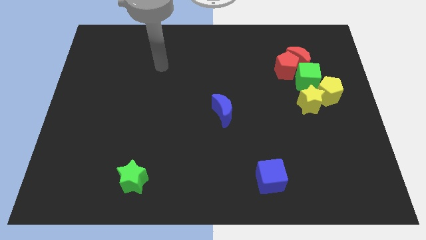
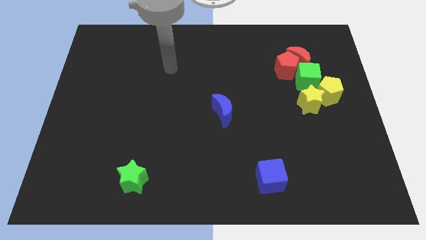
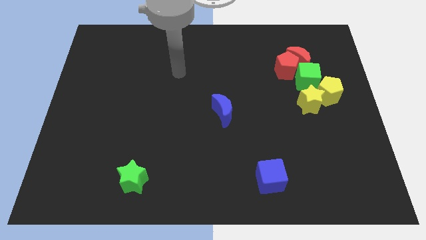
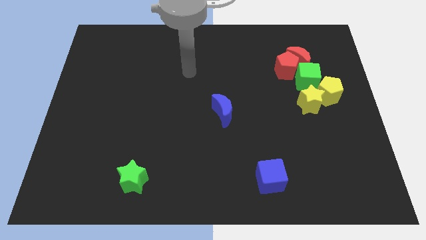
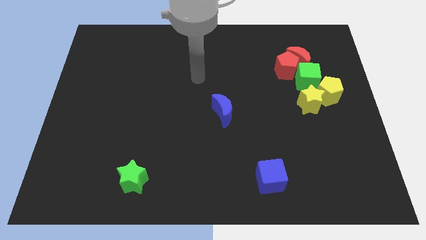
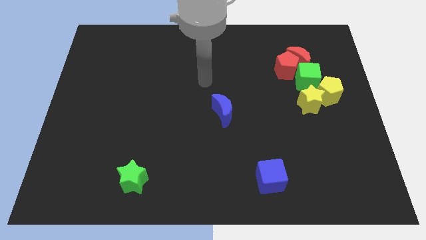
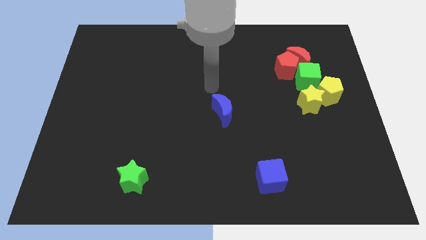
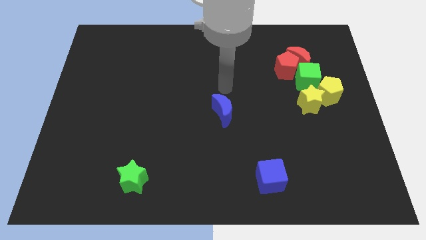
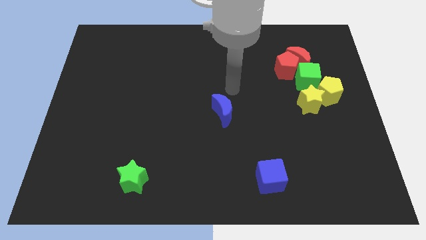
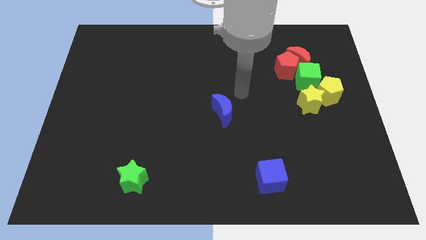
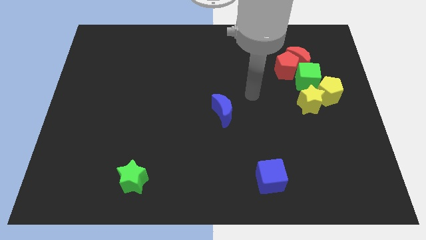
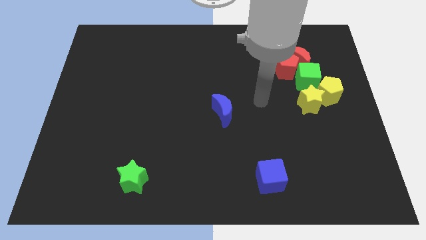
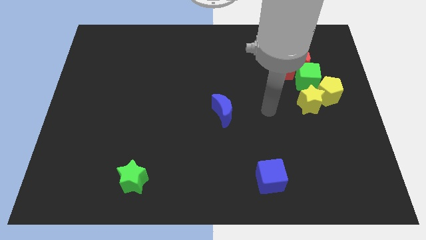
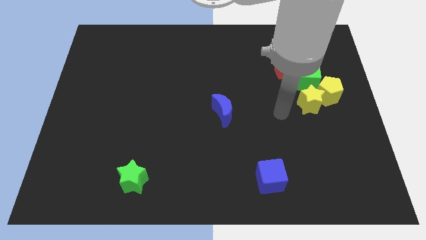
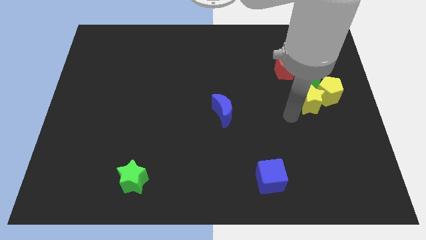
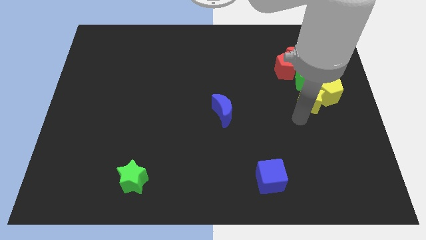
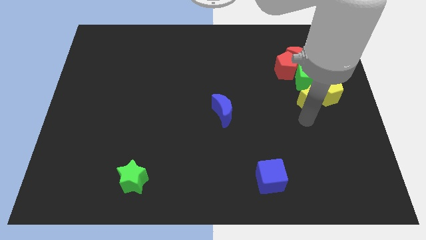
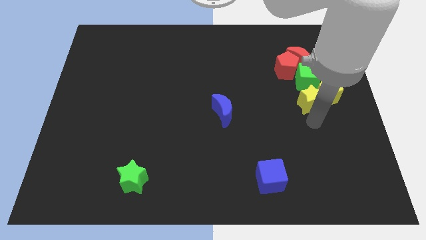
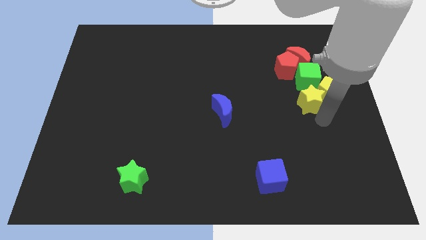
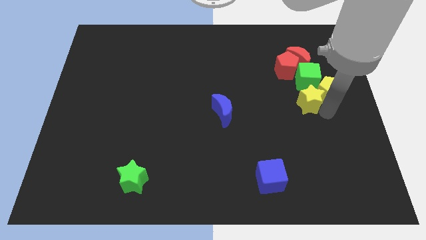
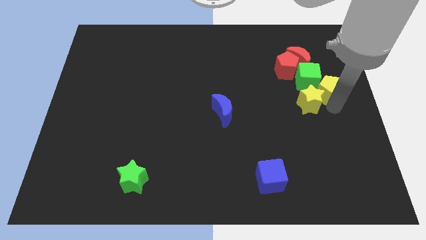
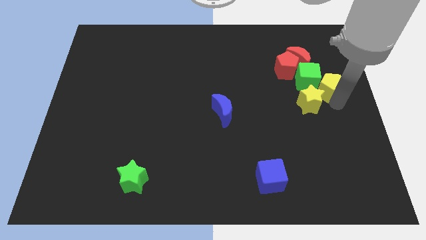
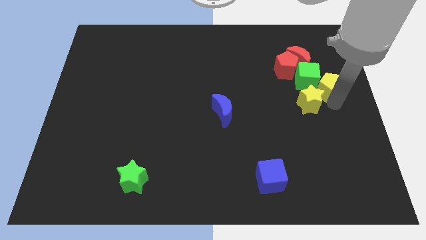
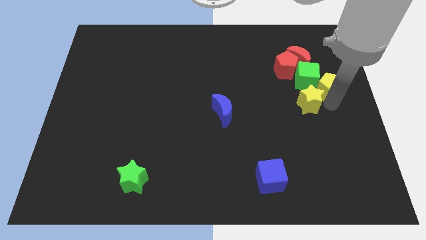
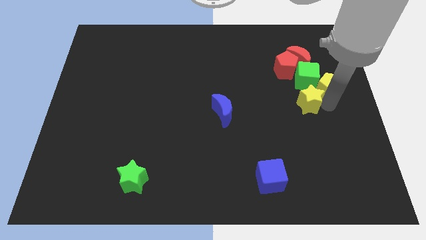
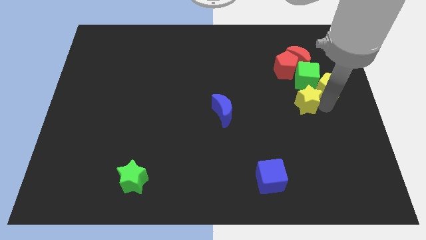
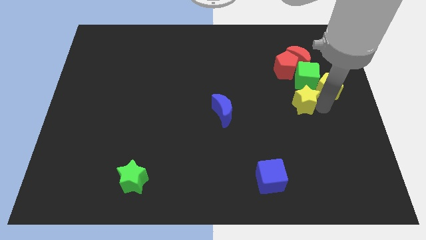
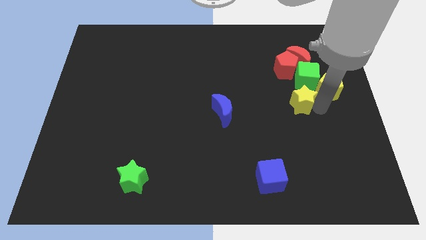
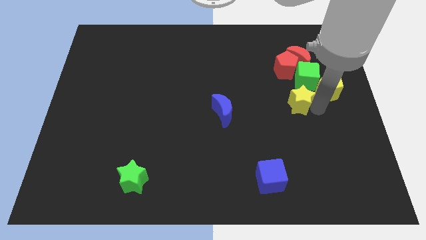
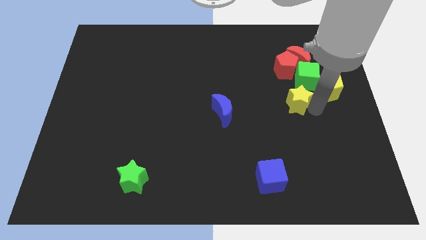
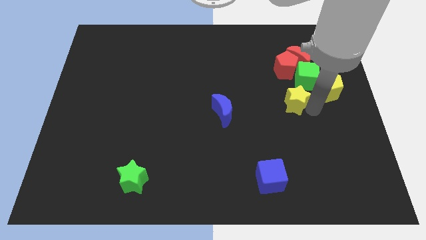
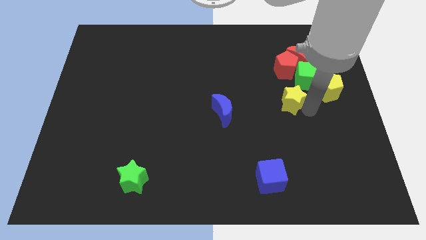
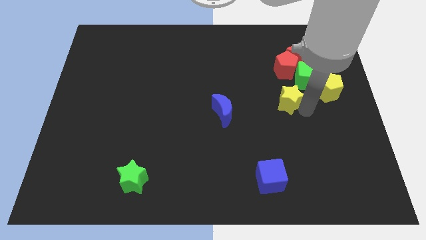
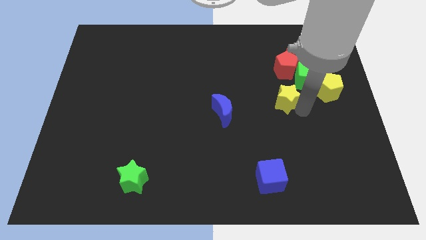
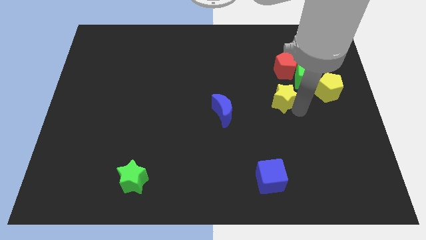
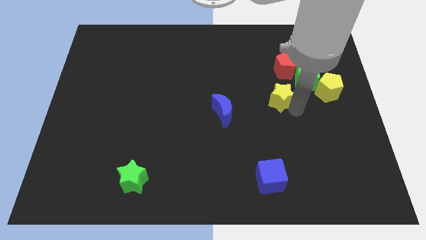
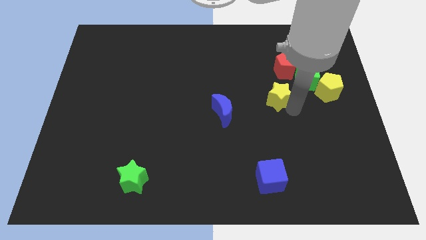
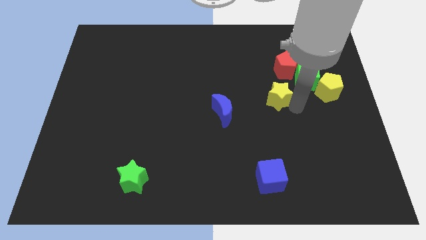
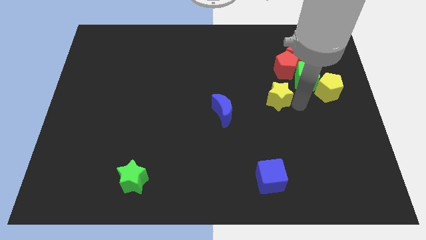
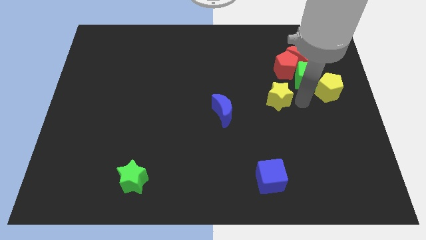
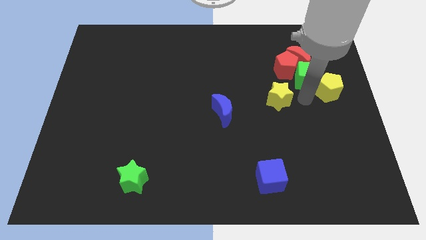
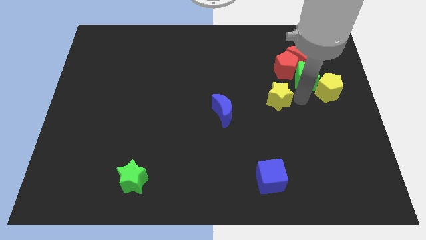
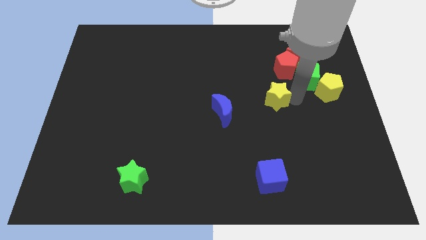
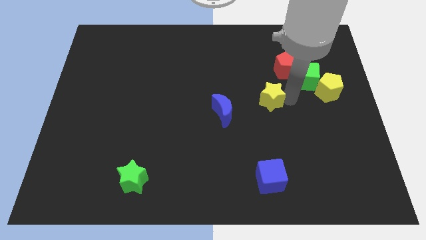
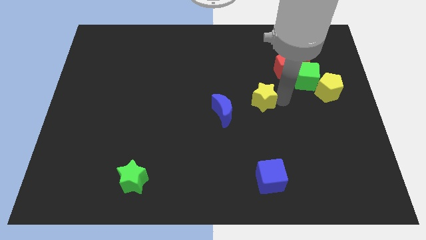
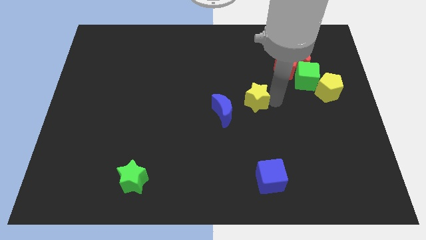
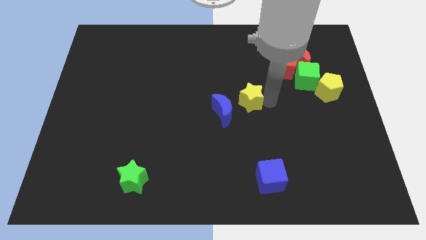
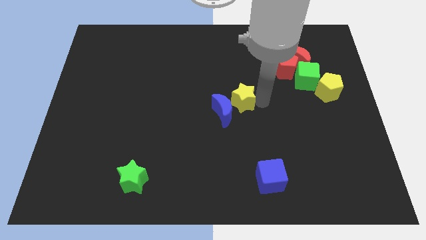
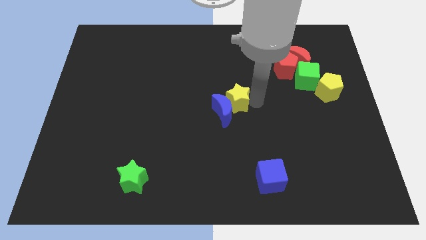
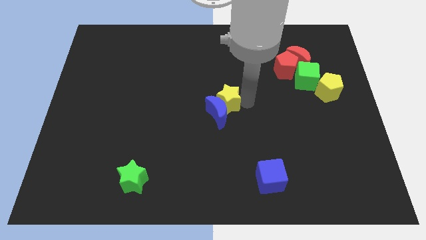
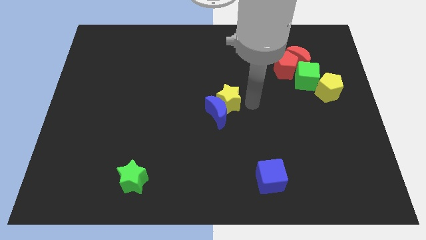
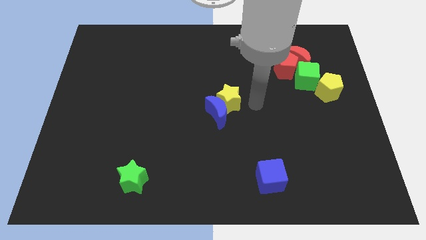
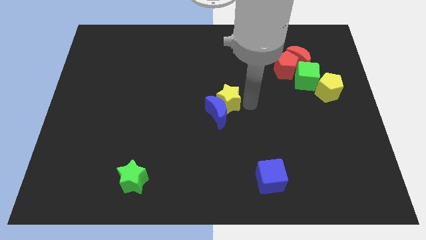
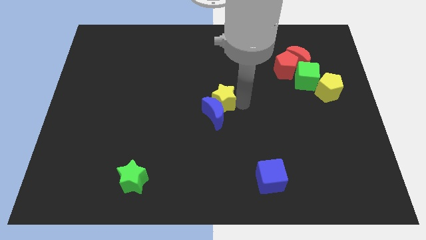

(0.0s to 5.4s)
move the yellow star to the left

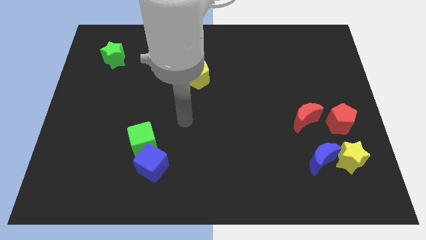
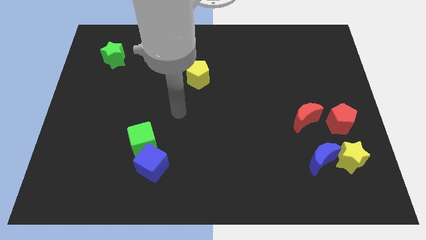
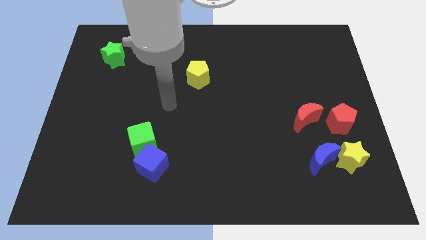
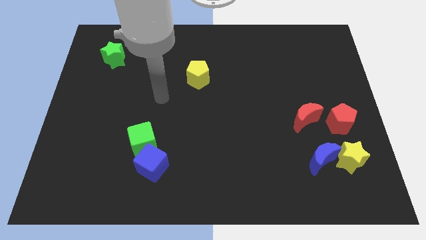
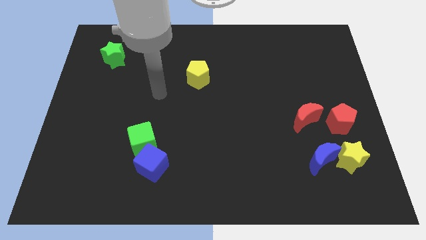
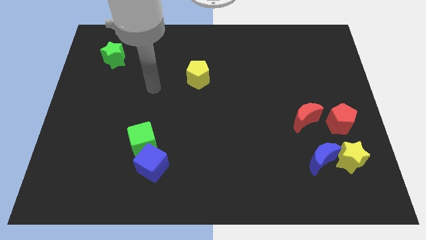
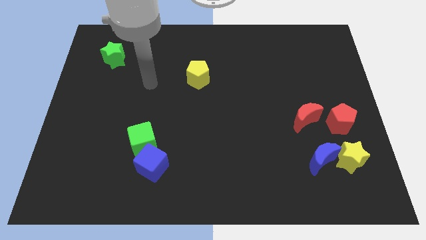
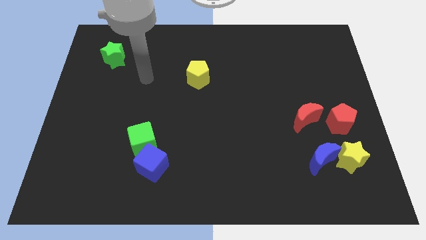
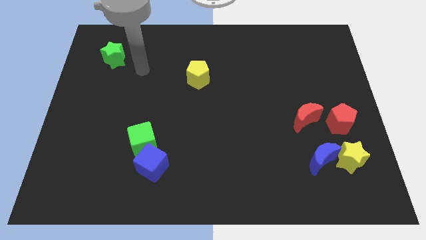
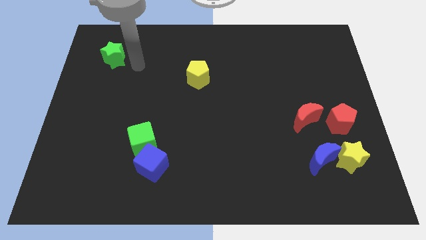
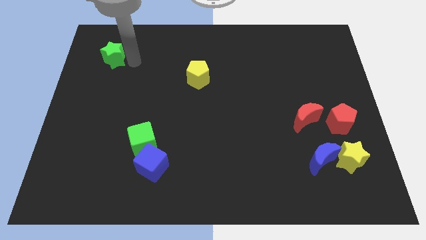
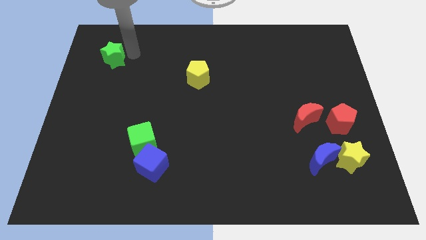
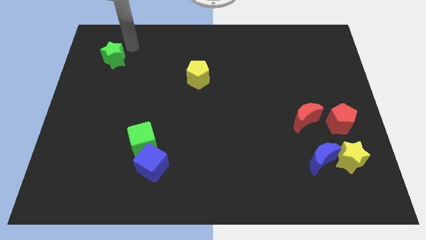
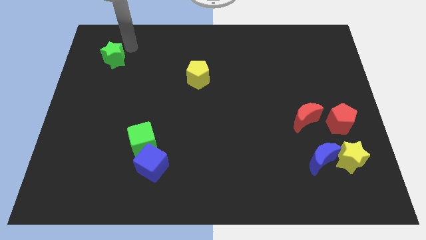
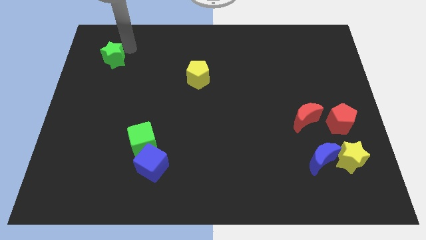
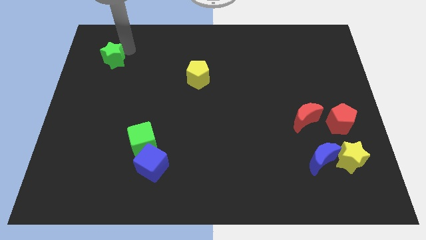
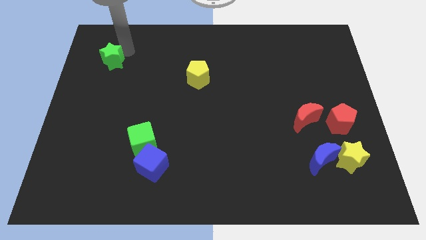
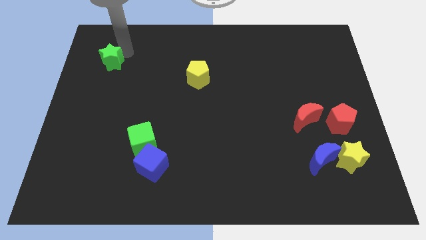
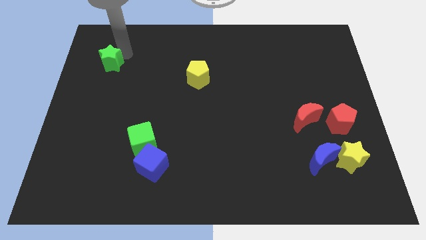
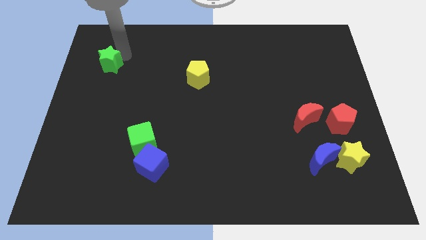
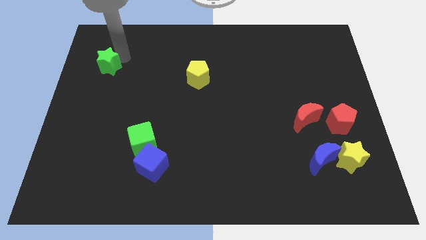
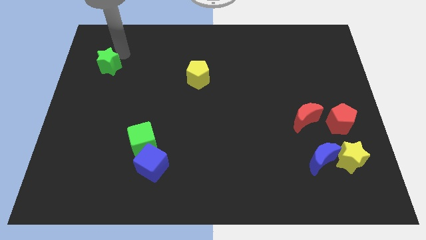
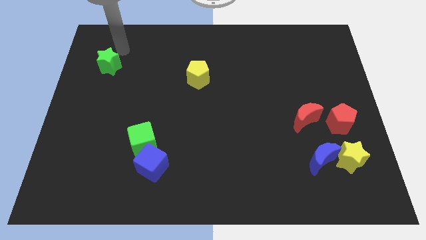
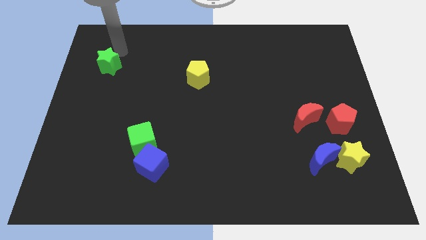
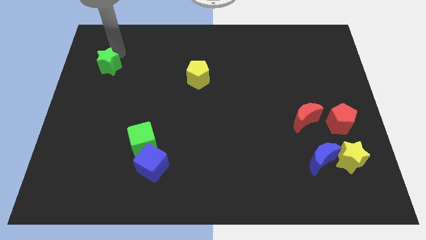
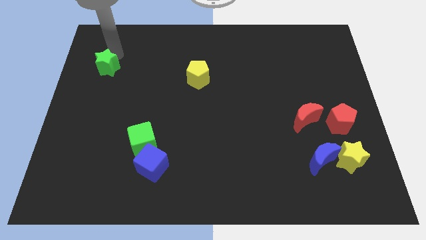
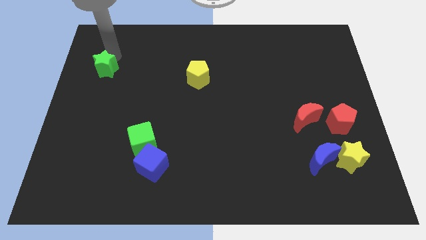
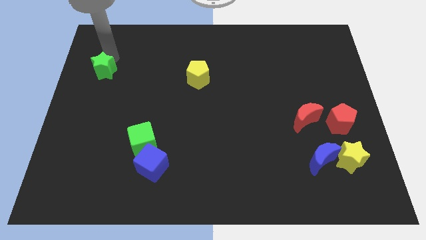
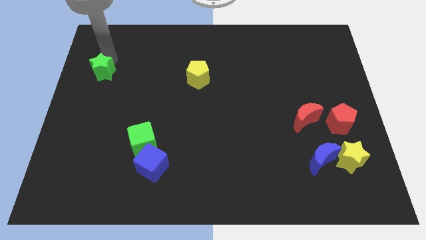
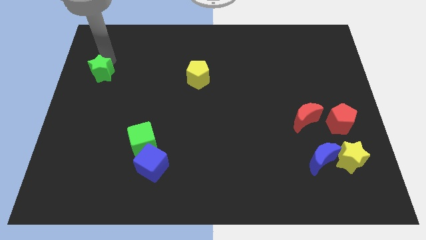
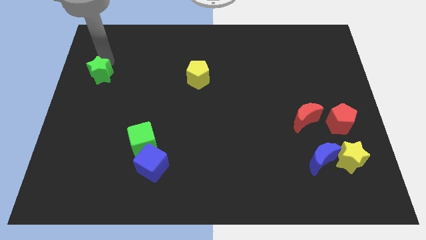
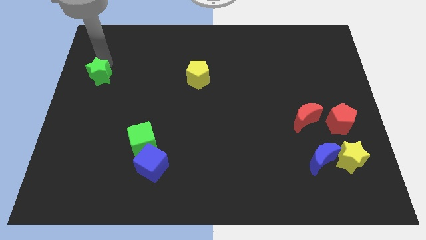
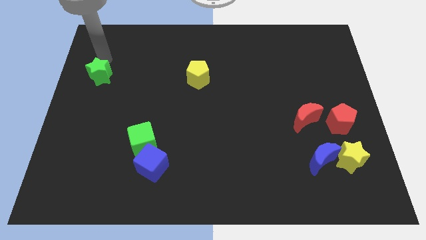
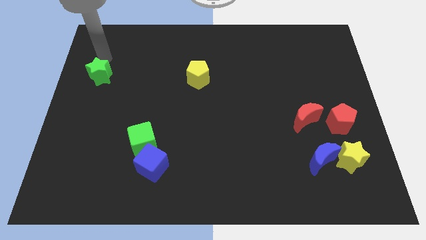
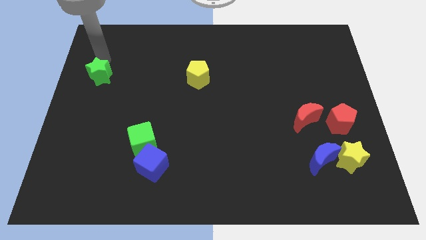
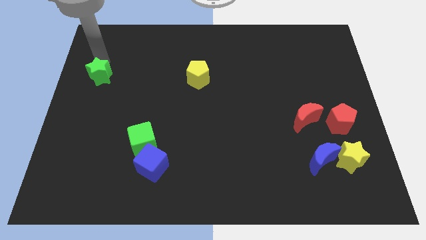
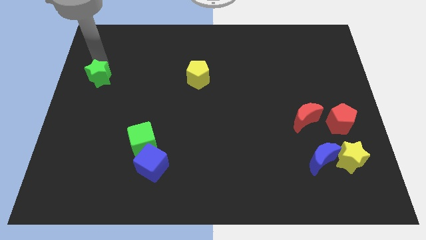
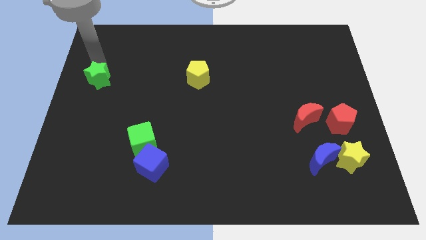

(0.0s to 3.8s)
push the green star downwards a little
